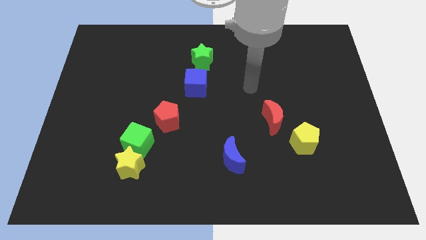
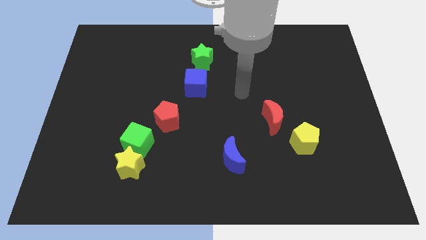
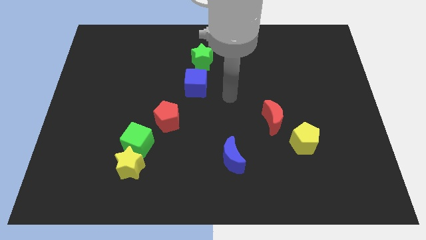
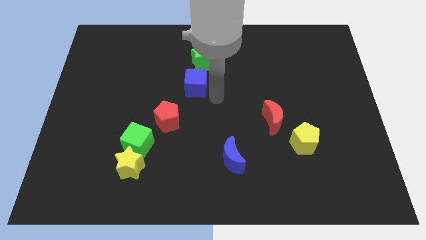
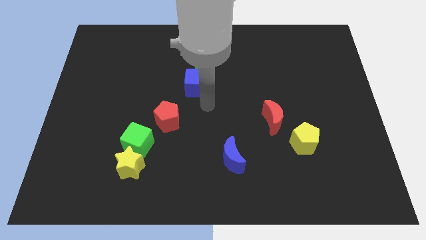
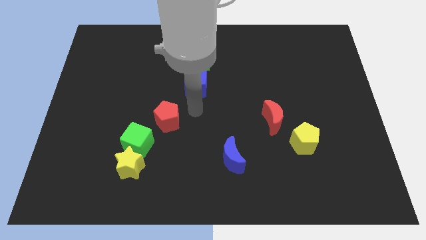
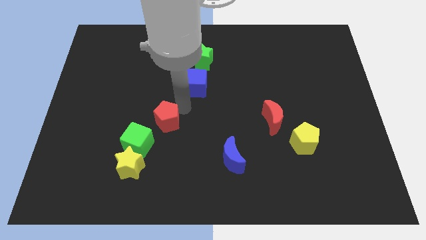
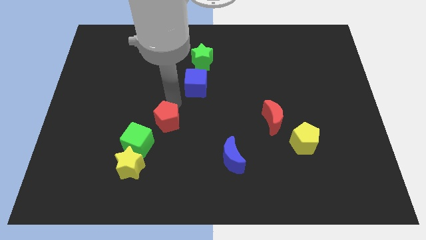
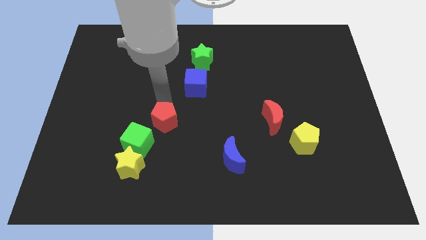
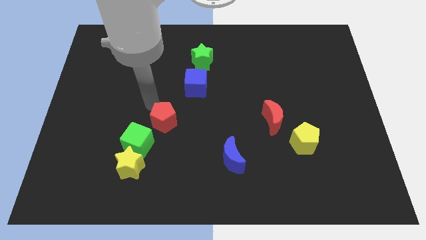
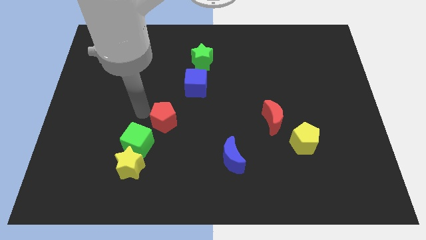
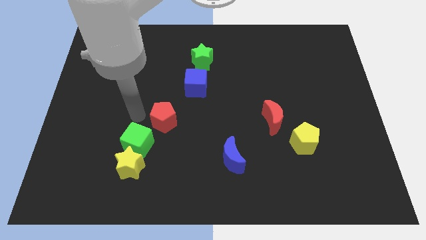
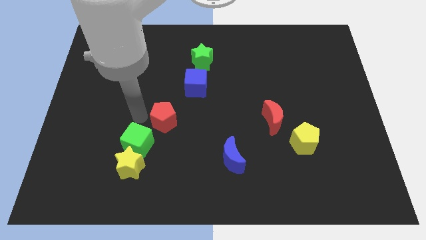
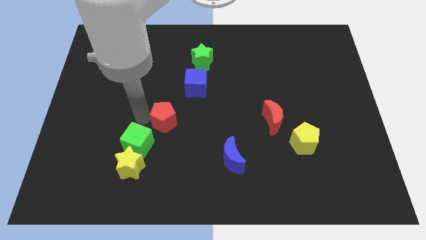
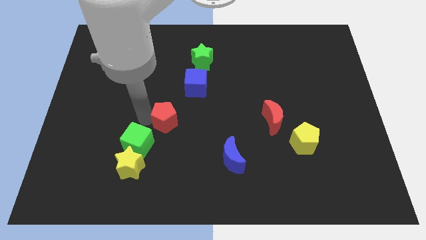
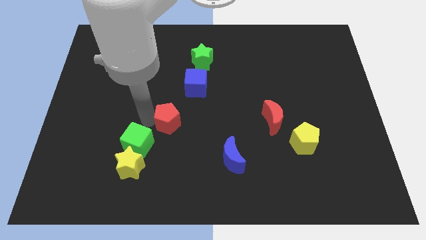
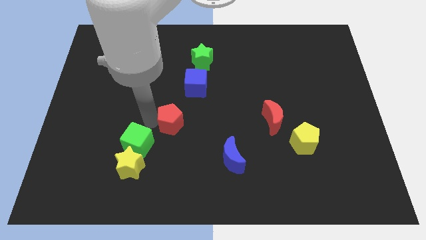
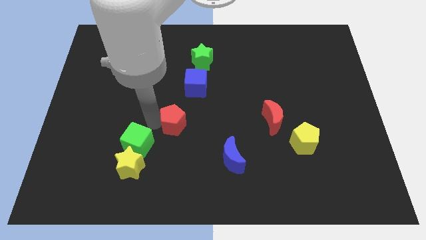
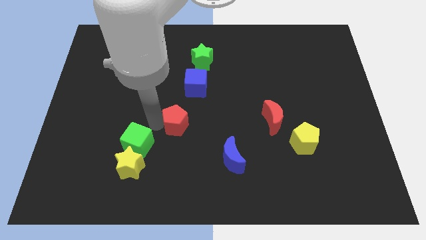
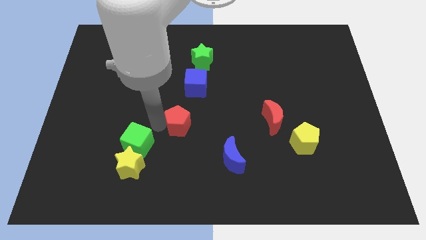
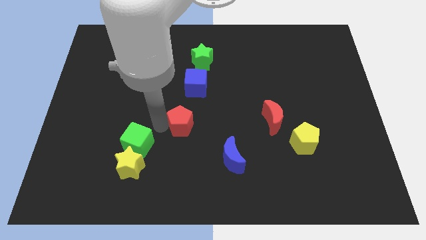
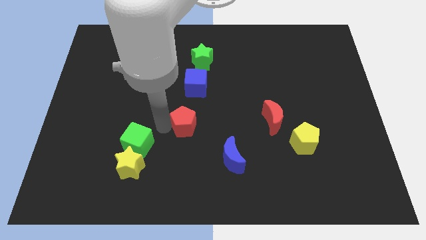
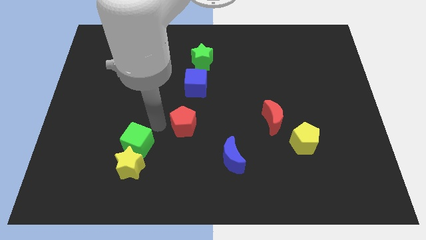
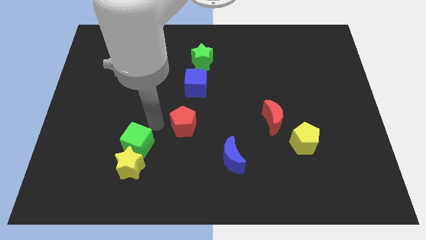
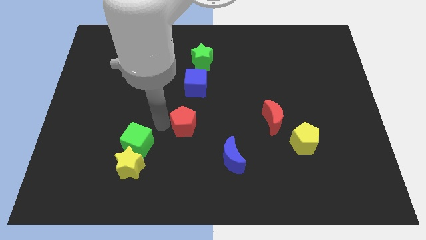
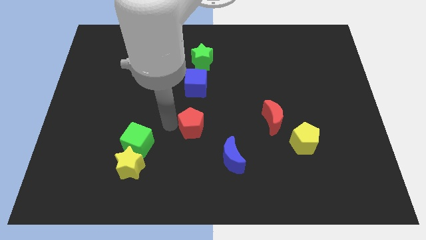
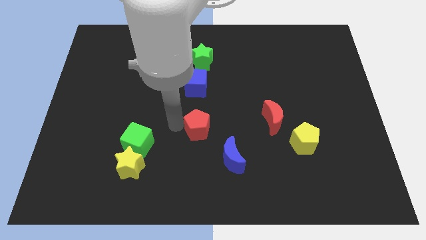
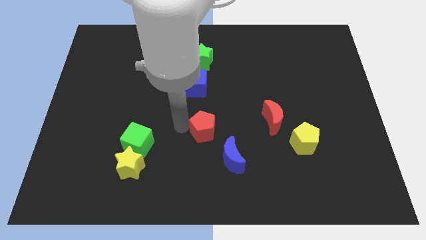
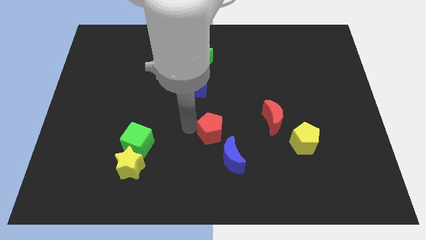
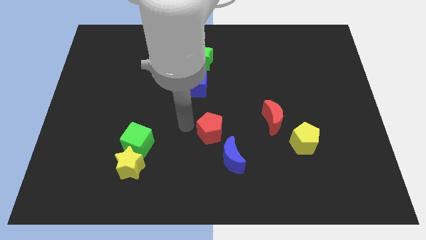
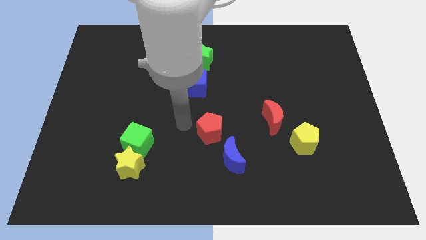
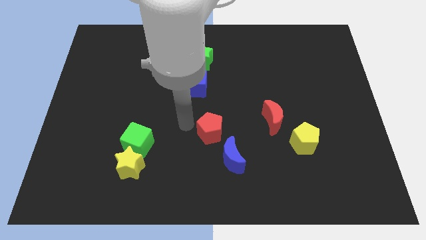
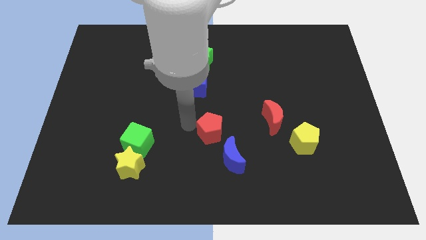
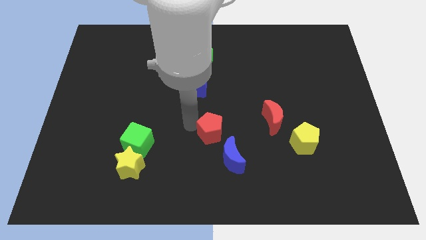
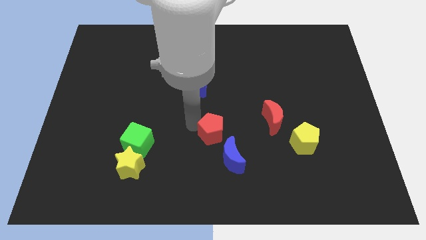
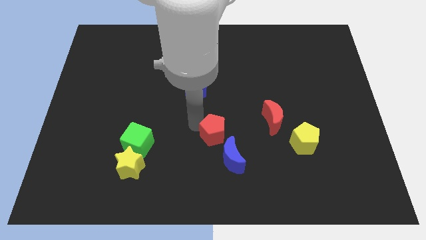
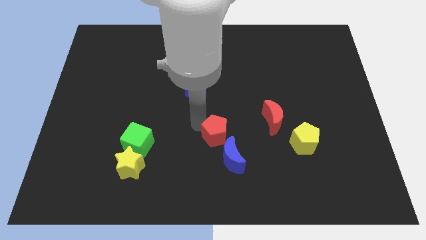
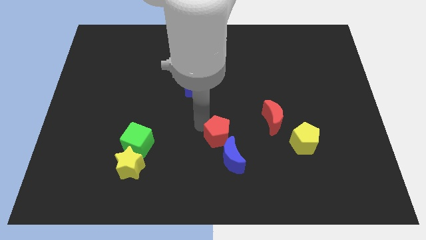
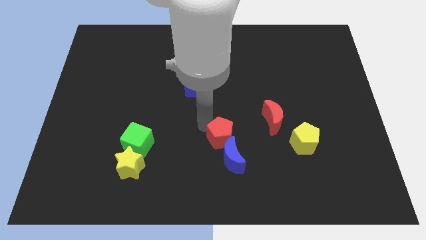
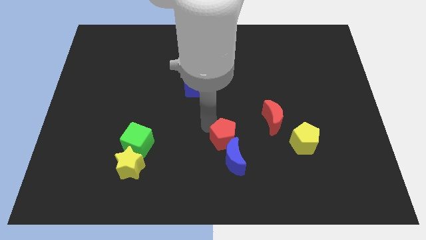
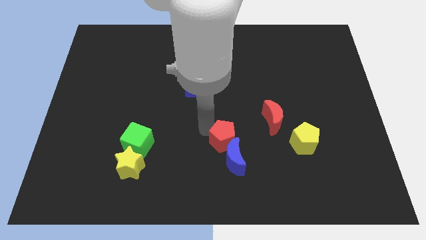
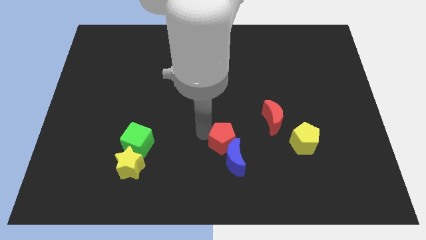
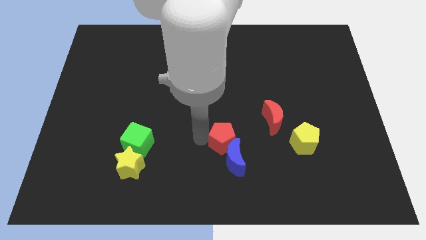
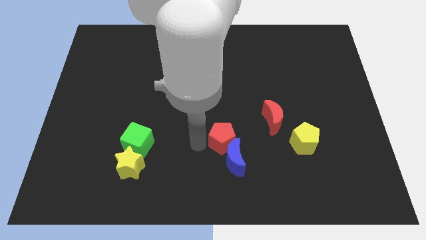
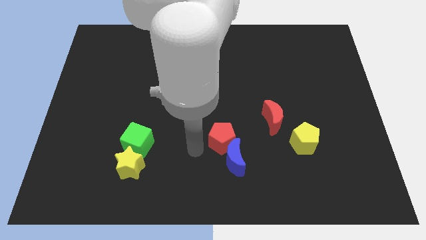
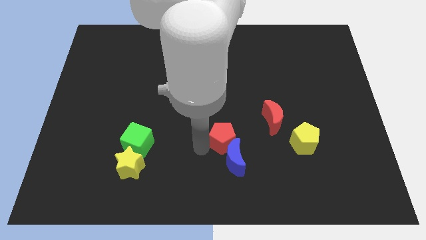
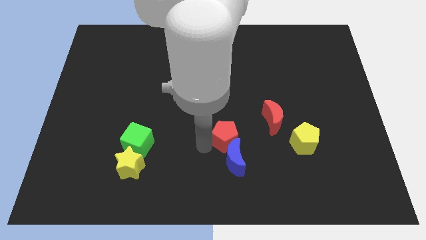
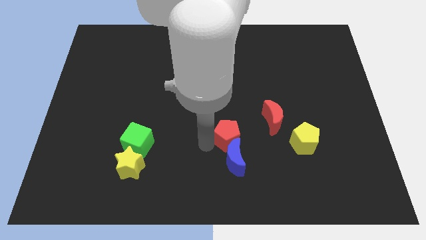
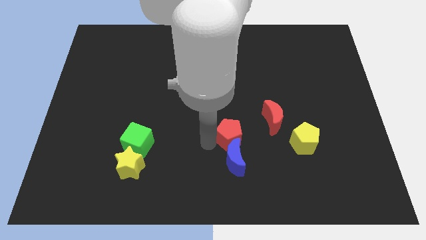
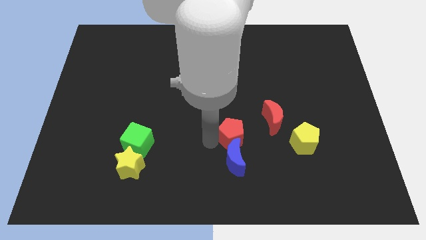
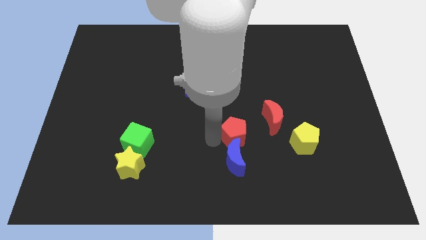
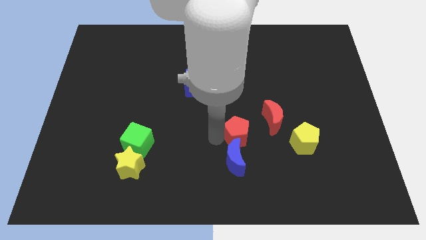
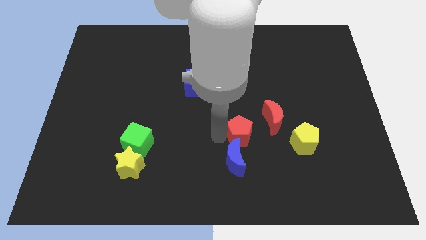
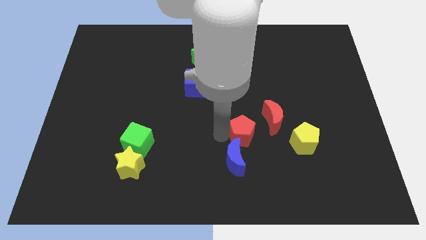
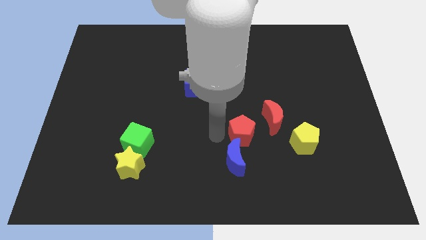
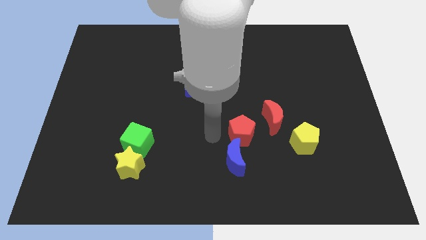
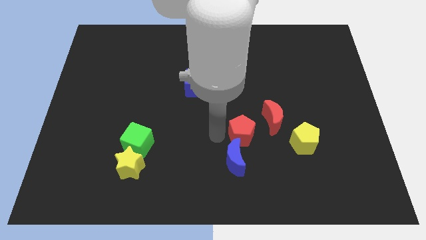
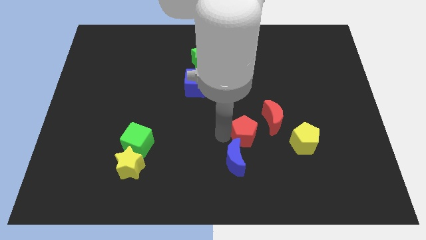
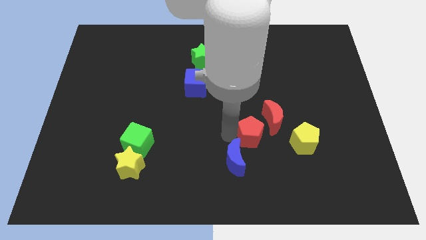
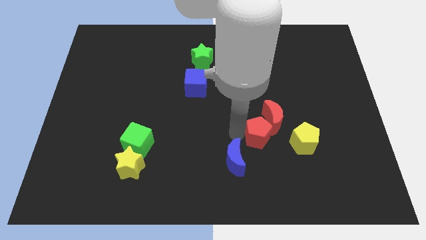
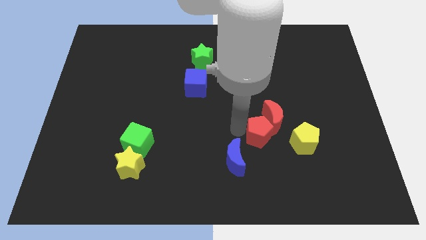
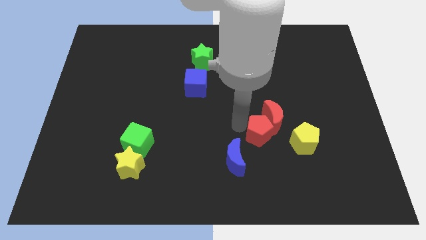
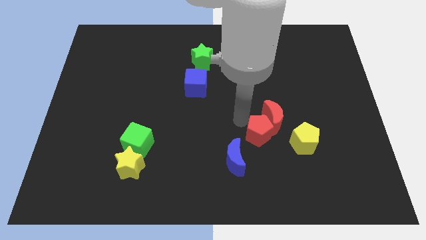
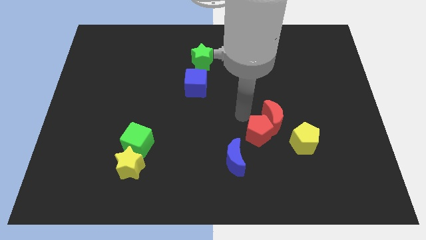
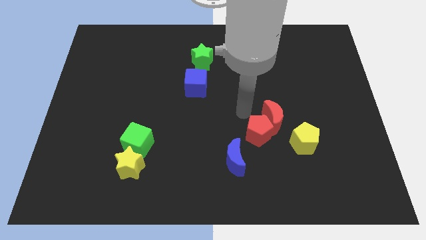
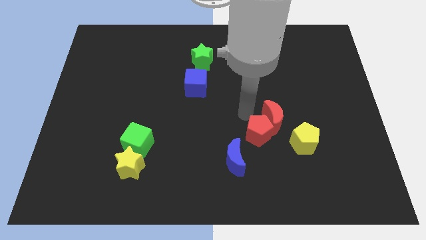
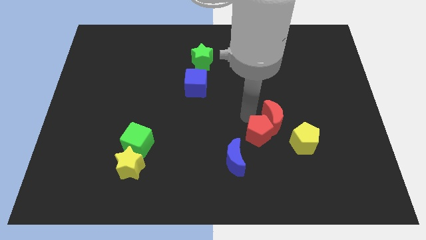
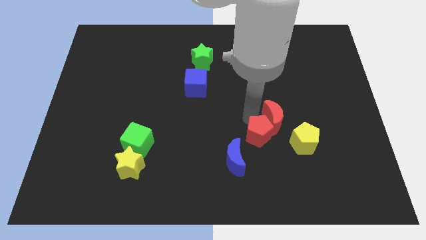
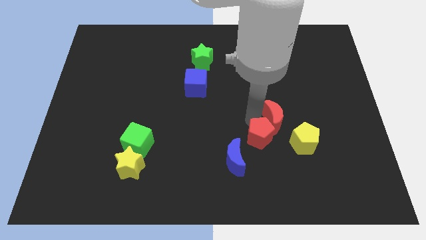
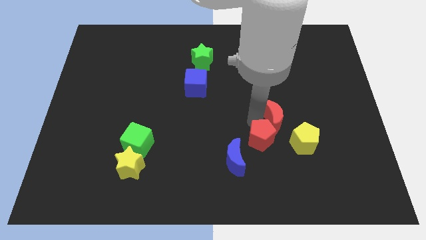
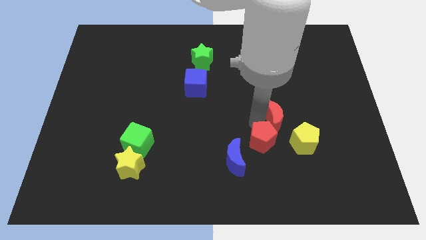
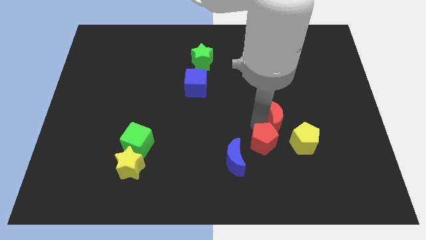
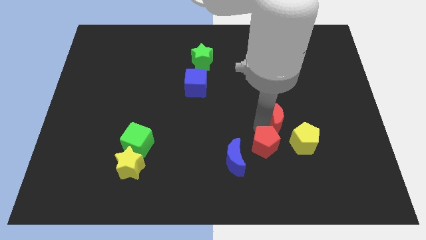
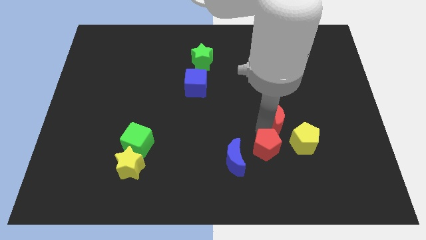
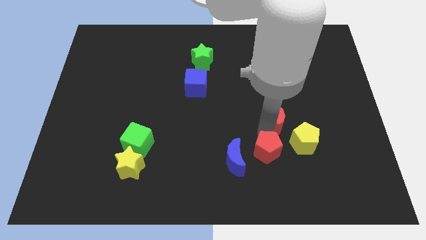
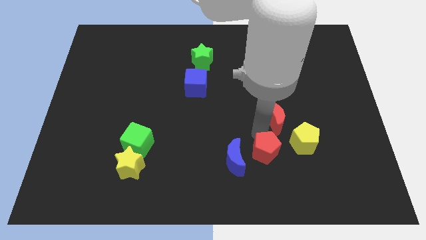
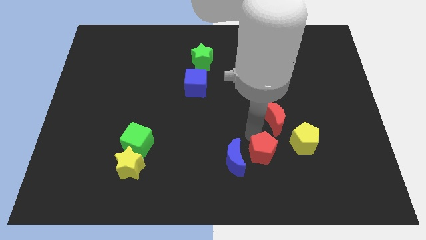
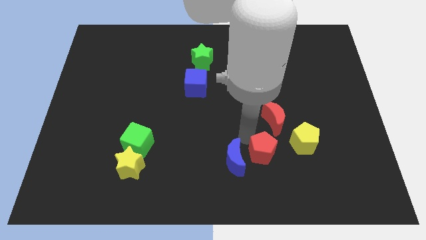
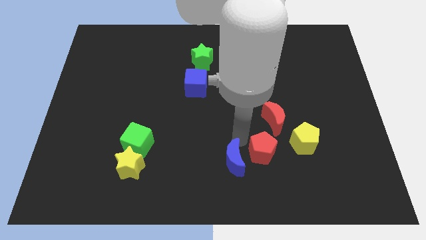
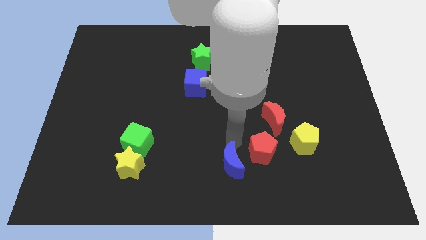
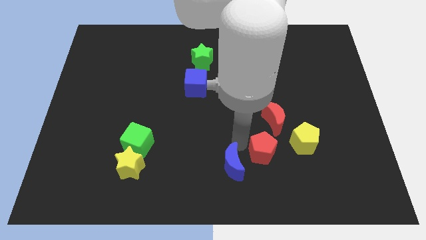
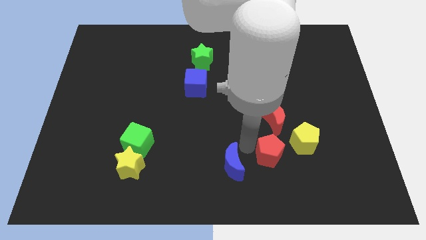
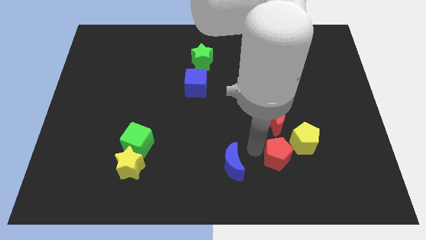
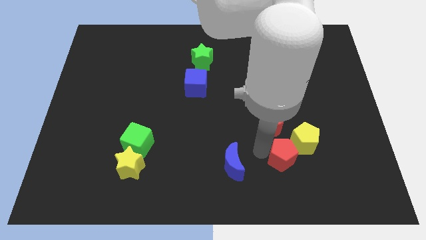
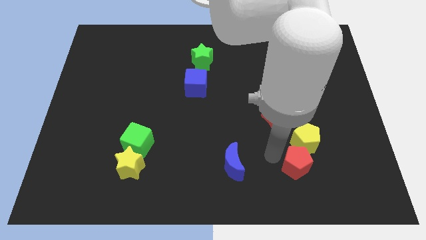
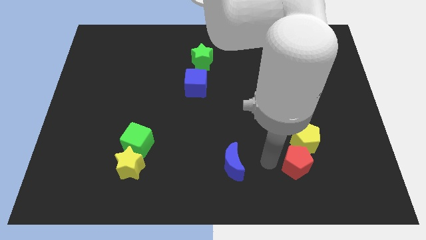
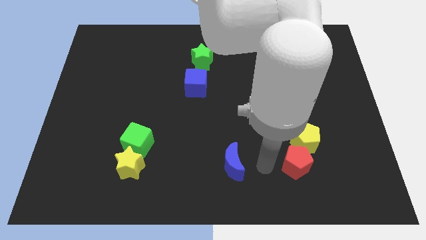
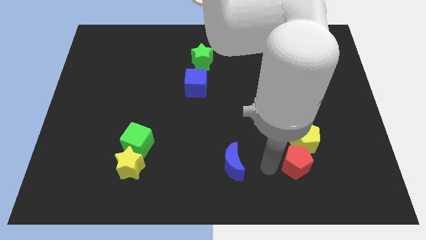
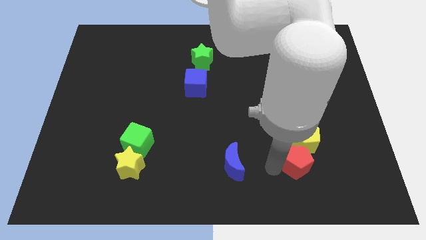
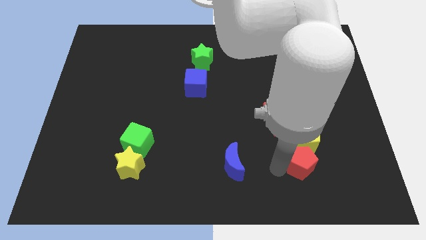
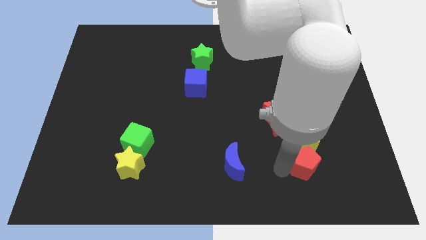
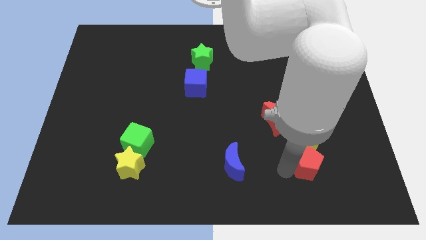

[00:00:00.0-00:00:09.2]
put the red pentagon to the bottom right side of the yellow pentagon
